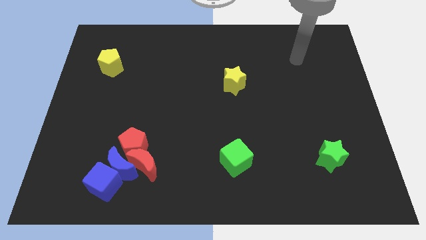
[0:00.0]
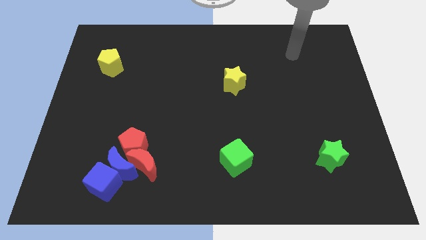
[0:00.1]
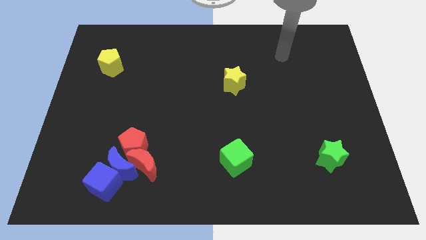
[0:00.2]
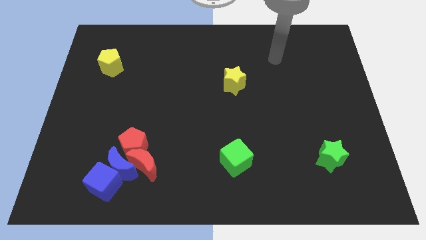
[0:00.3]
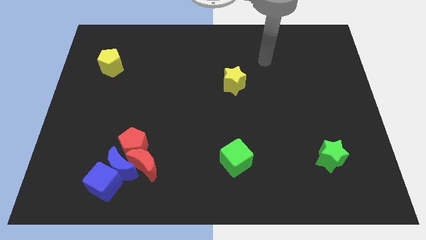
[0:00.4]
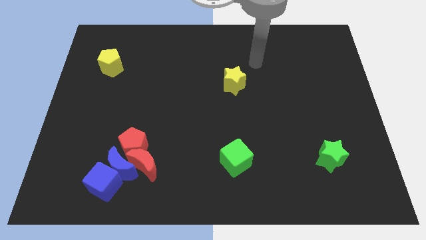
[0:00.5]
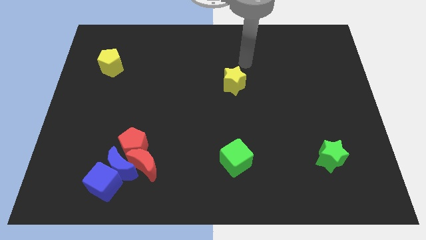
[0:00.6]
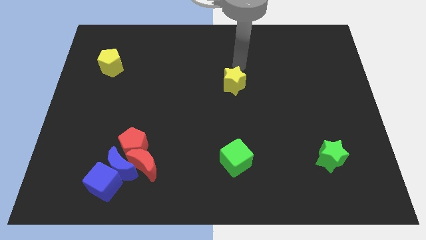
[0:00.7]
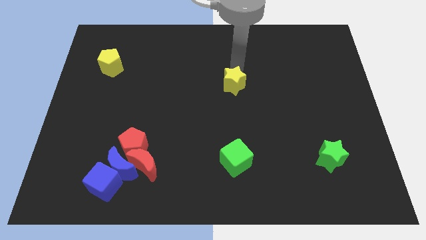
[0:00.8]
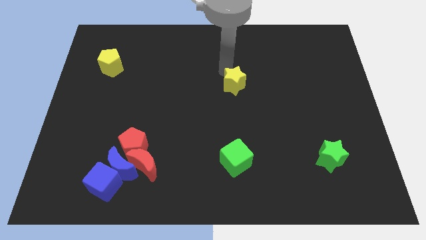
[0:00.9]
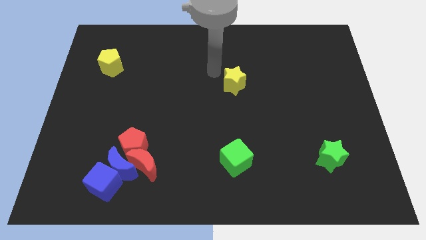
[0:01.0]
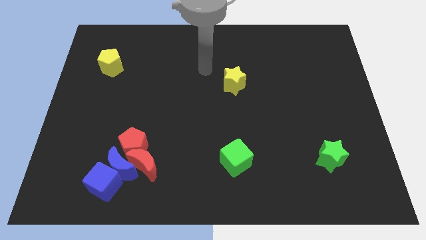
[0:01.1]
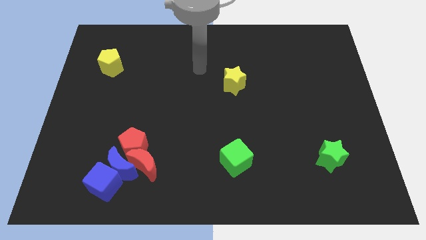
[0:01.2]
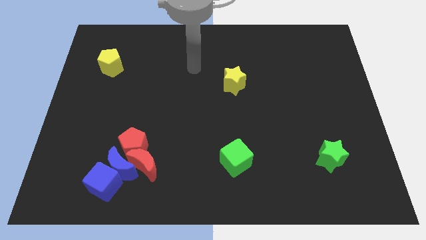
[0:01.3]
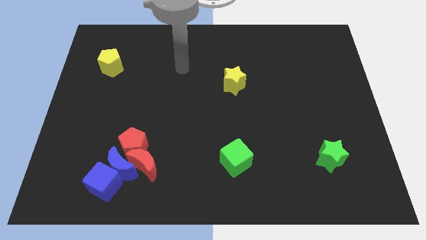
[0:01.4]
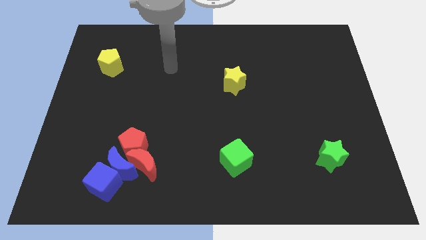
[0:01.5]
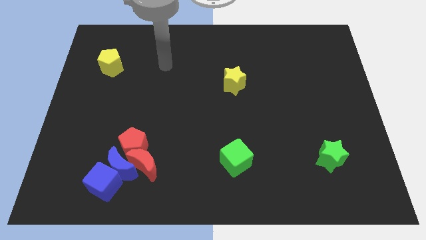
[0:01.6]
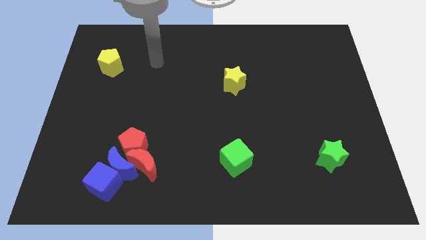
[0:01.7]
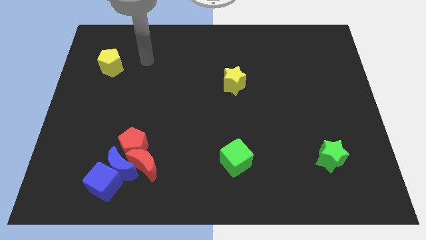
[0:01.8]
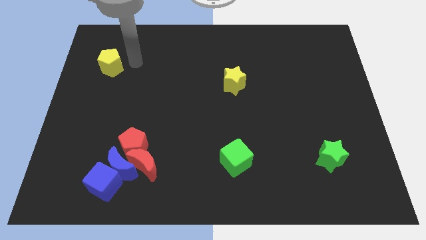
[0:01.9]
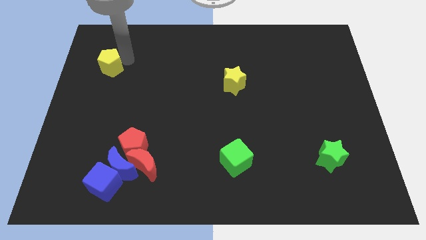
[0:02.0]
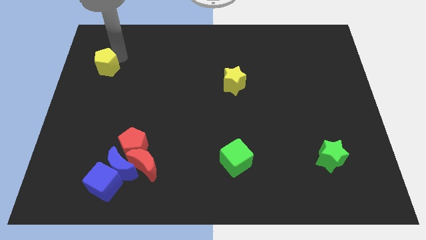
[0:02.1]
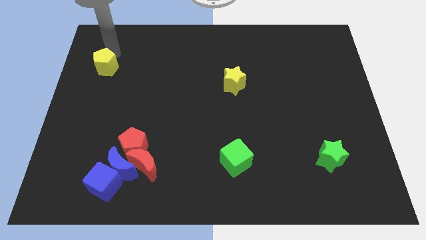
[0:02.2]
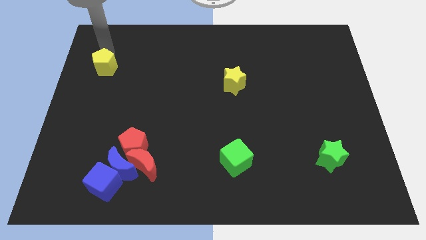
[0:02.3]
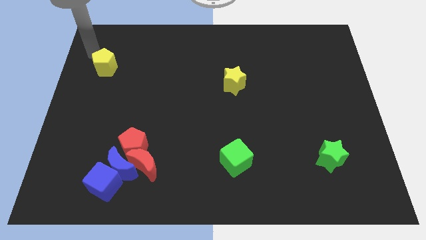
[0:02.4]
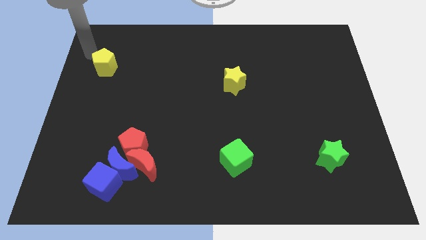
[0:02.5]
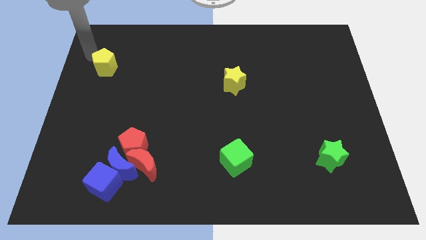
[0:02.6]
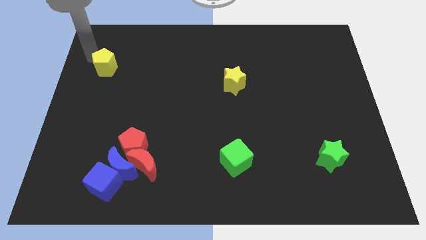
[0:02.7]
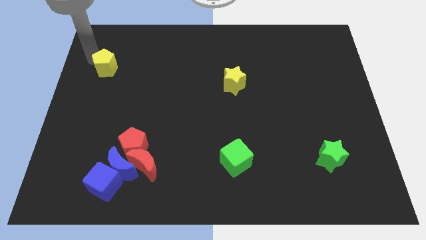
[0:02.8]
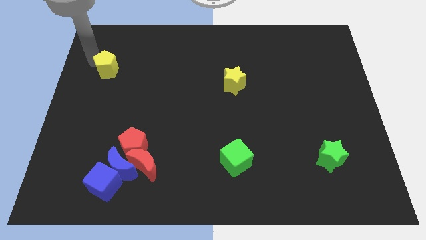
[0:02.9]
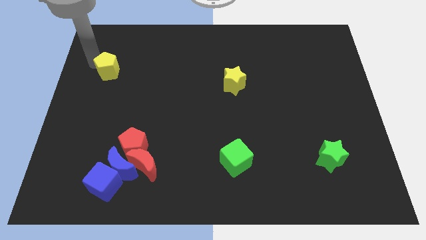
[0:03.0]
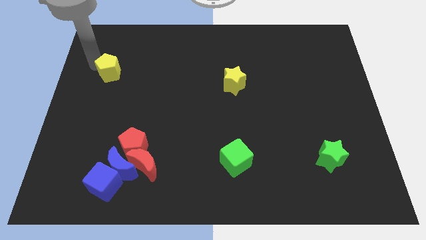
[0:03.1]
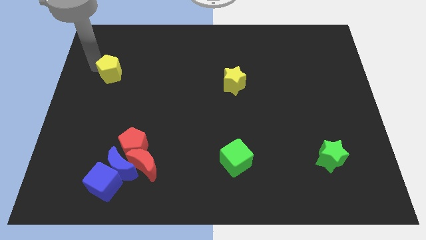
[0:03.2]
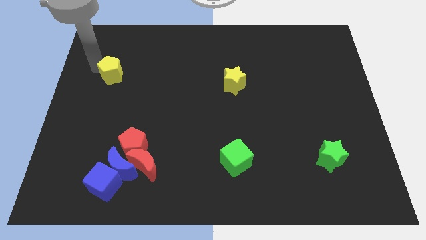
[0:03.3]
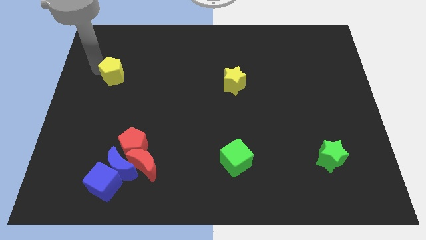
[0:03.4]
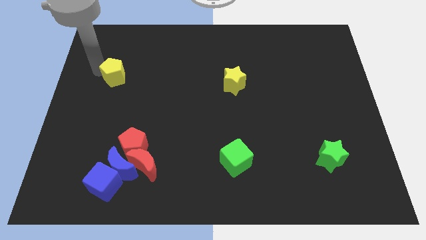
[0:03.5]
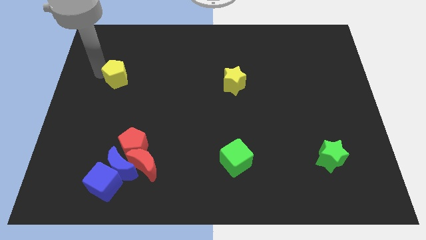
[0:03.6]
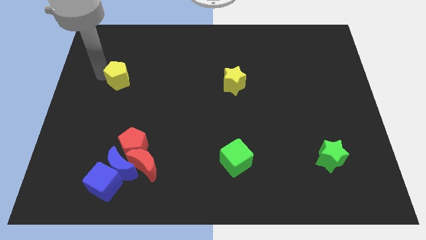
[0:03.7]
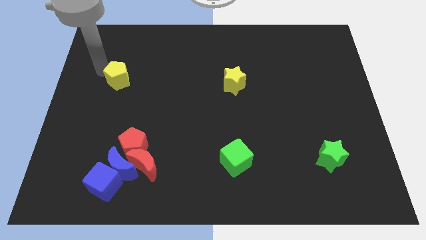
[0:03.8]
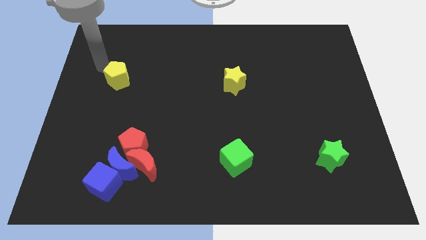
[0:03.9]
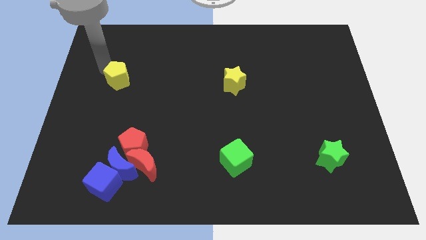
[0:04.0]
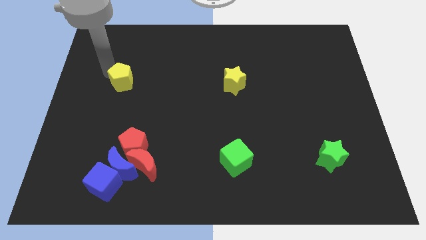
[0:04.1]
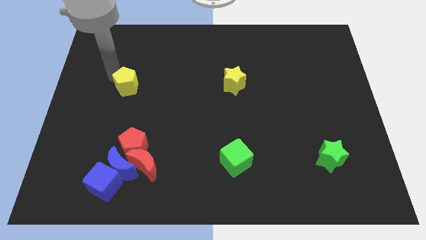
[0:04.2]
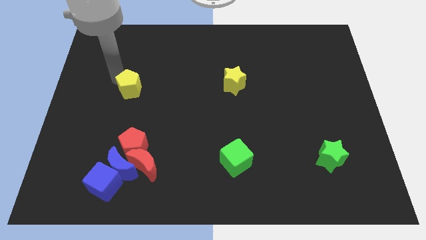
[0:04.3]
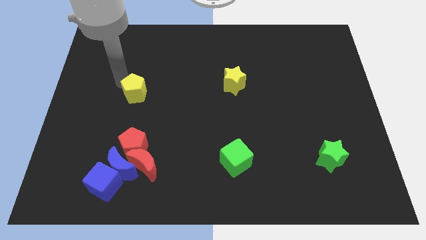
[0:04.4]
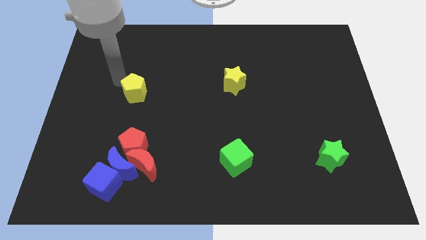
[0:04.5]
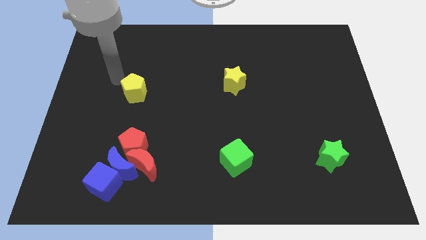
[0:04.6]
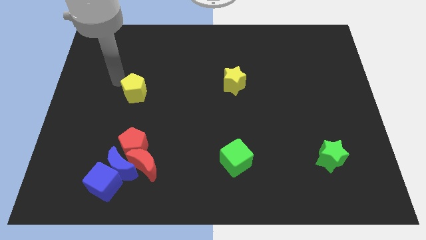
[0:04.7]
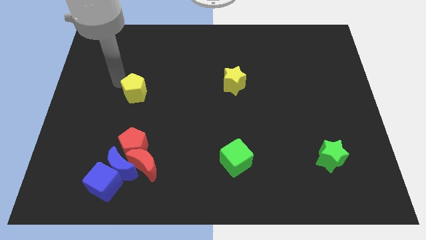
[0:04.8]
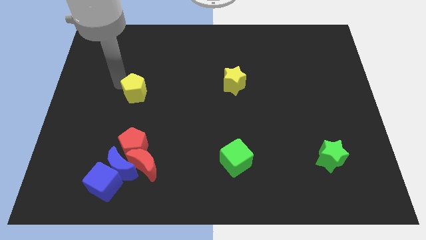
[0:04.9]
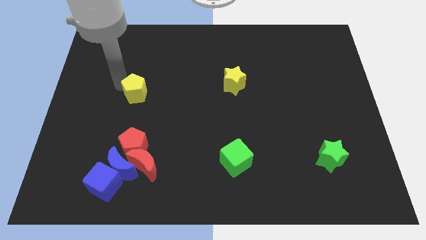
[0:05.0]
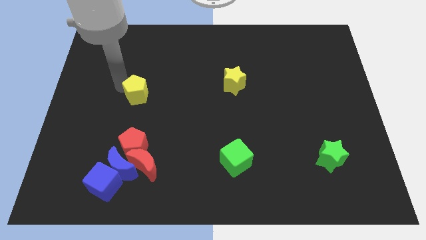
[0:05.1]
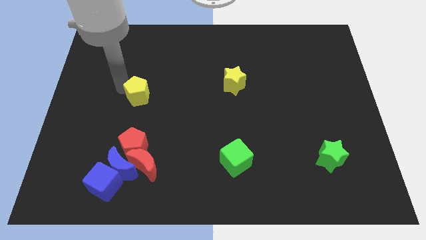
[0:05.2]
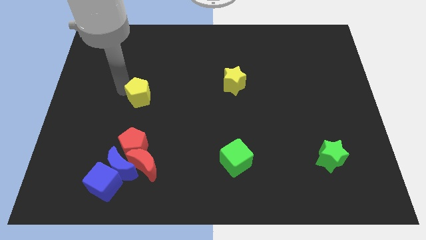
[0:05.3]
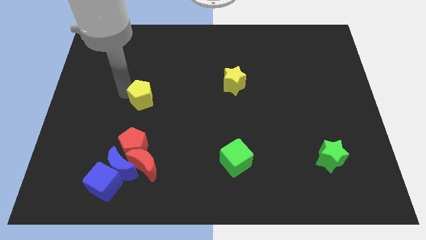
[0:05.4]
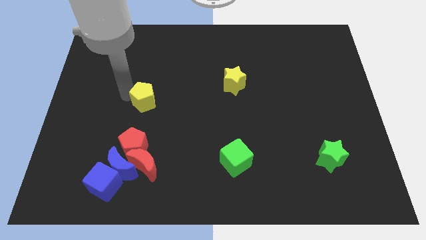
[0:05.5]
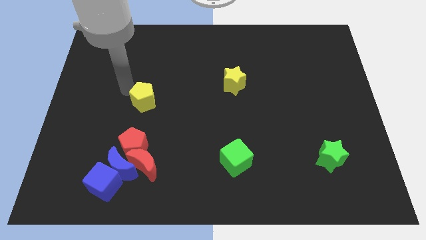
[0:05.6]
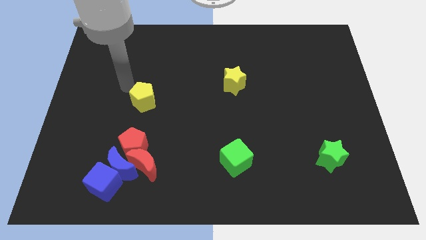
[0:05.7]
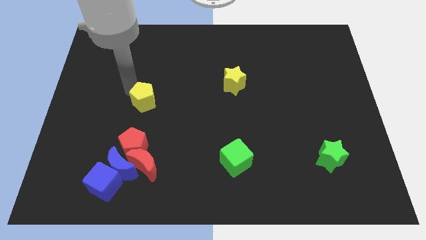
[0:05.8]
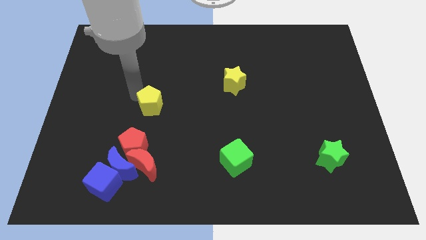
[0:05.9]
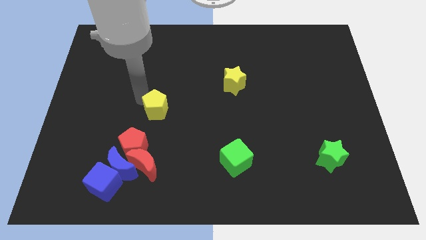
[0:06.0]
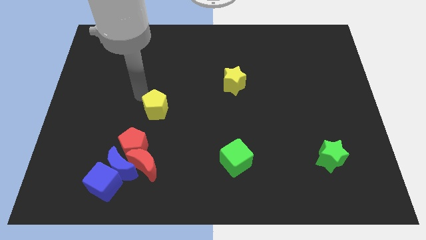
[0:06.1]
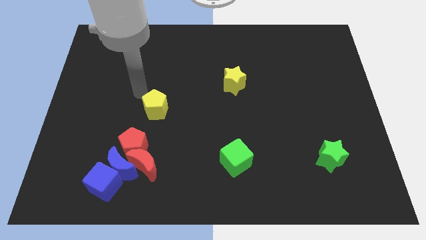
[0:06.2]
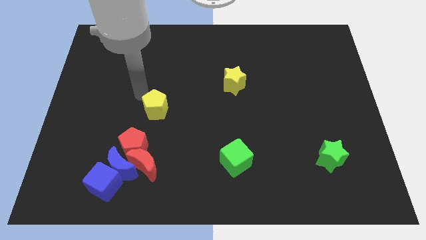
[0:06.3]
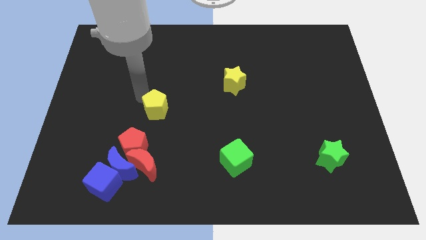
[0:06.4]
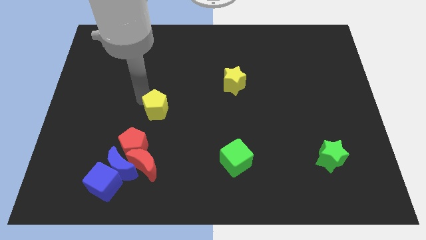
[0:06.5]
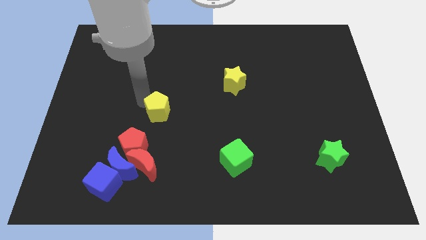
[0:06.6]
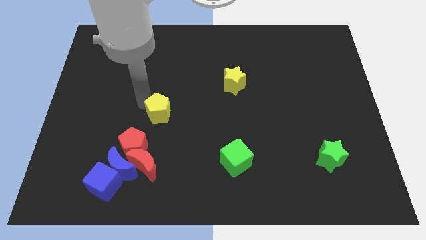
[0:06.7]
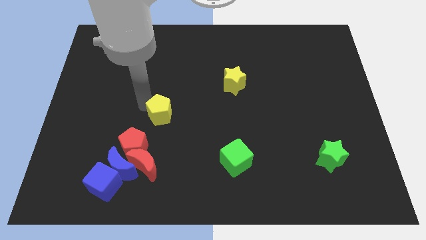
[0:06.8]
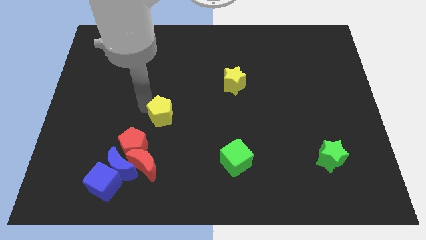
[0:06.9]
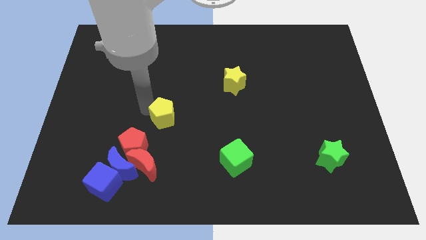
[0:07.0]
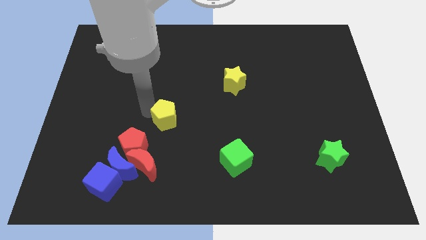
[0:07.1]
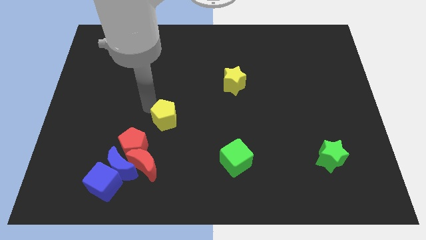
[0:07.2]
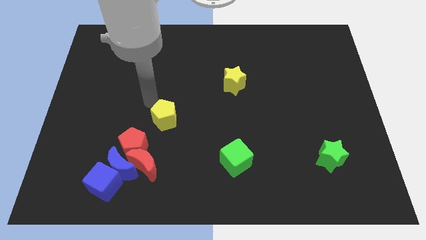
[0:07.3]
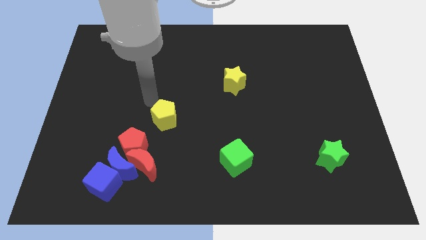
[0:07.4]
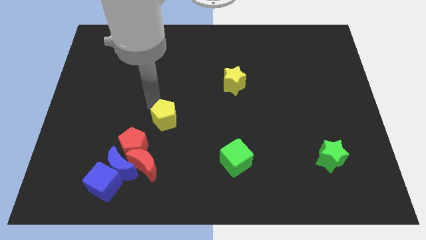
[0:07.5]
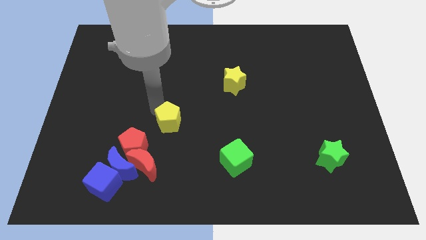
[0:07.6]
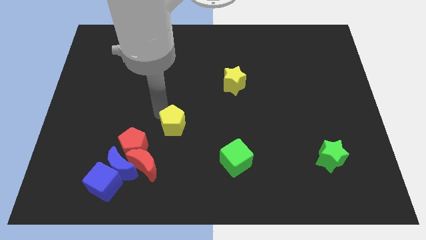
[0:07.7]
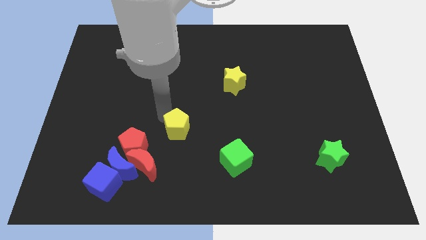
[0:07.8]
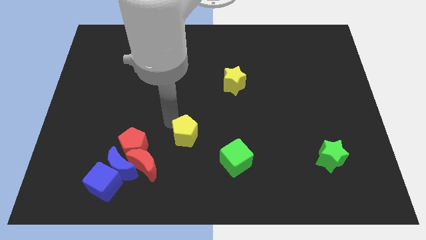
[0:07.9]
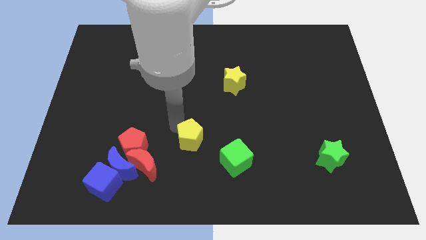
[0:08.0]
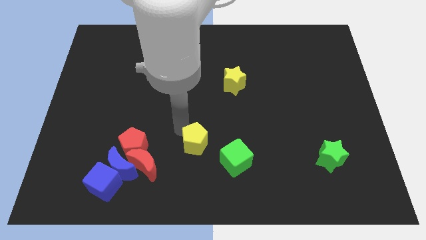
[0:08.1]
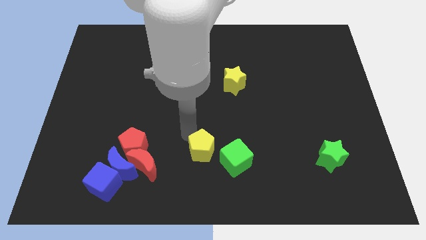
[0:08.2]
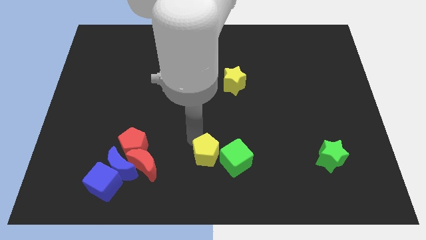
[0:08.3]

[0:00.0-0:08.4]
push the yellow pentagon to the bottom side

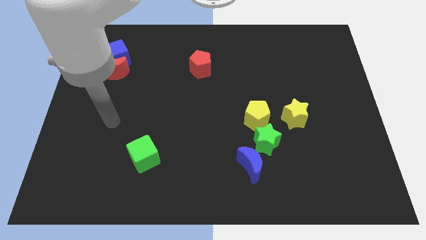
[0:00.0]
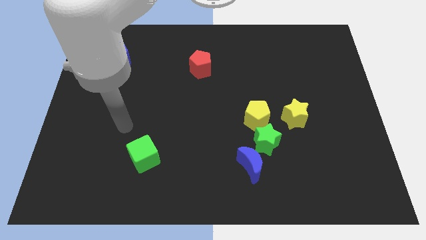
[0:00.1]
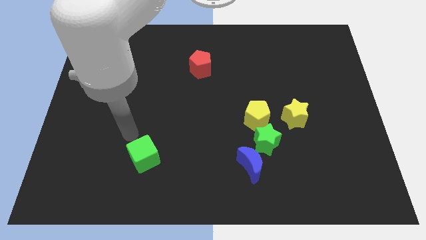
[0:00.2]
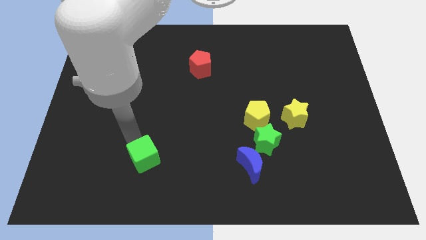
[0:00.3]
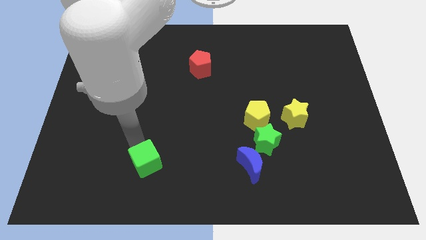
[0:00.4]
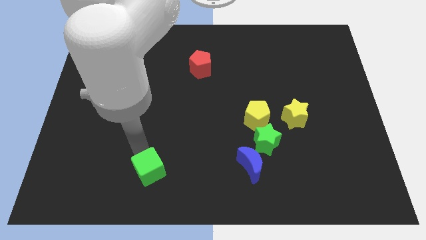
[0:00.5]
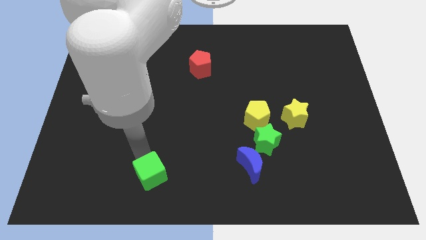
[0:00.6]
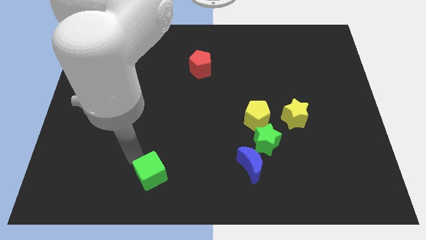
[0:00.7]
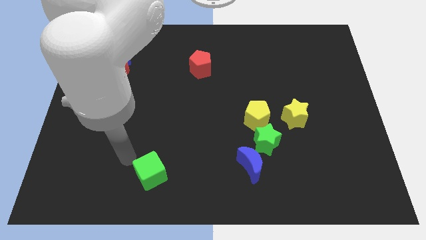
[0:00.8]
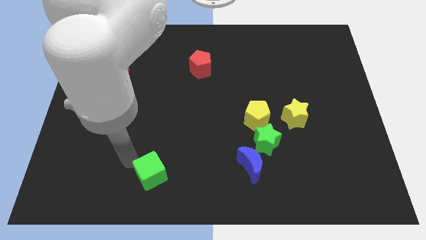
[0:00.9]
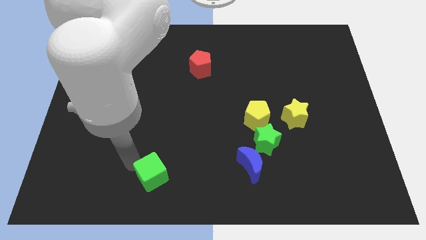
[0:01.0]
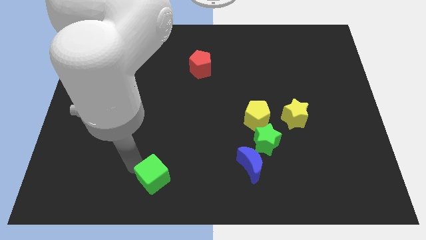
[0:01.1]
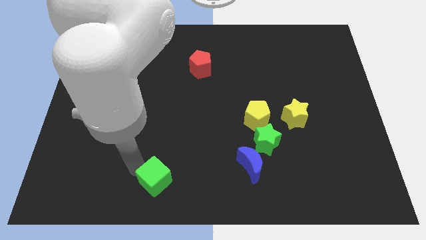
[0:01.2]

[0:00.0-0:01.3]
slide the green cube to the bottom side
